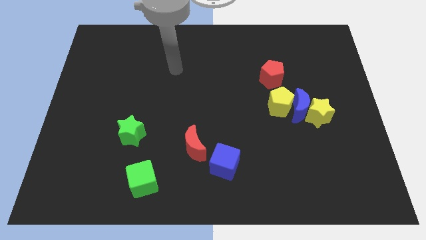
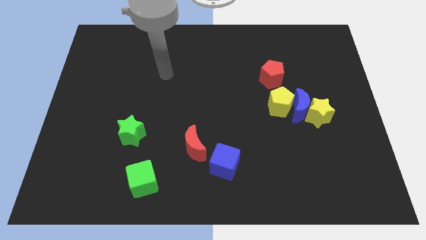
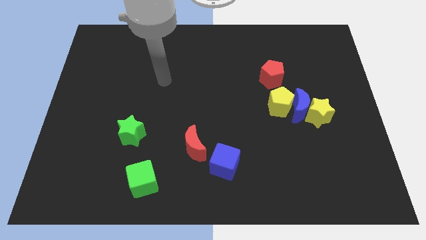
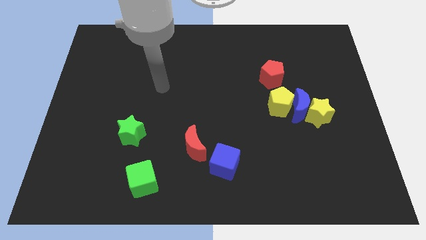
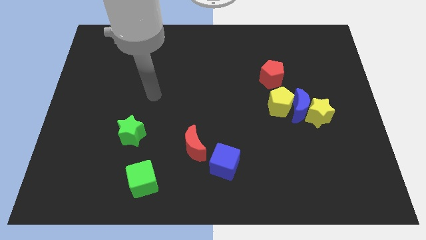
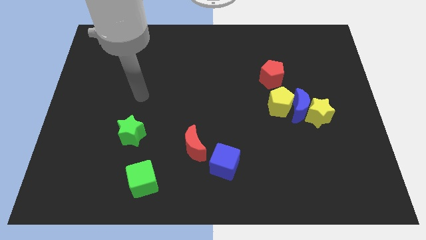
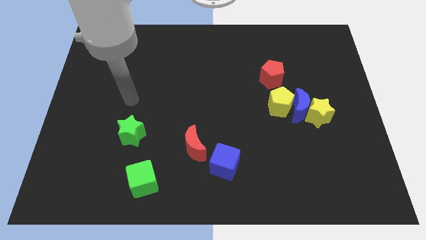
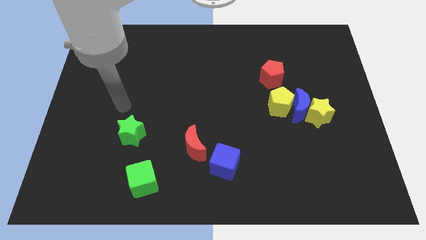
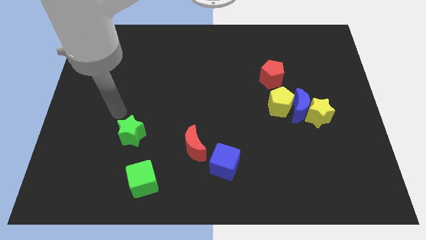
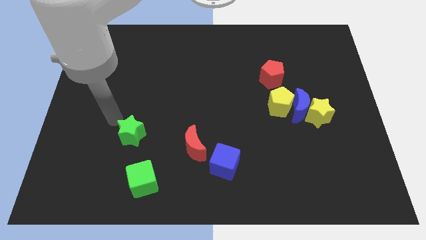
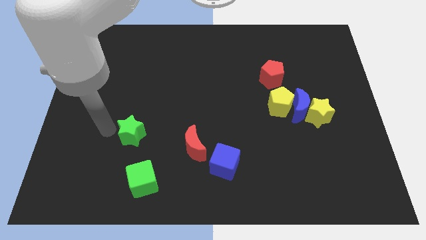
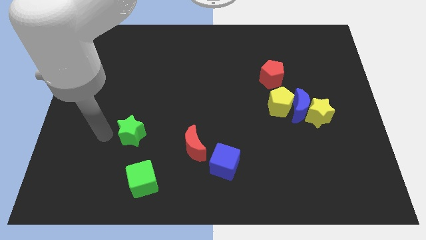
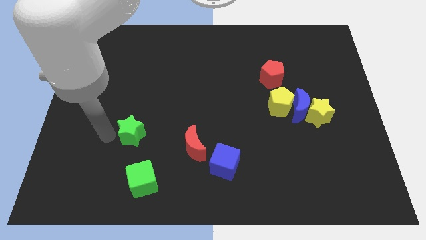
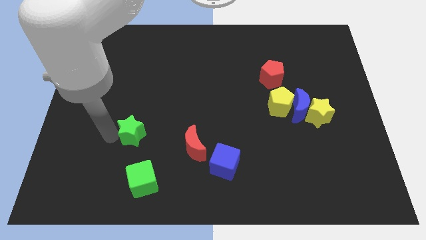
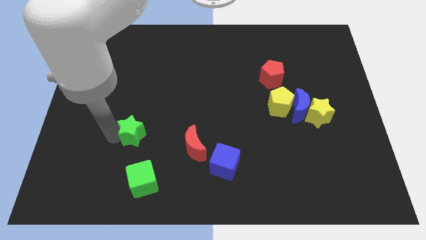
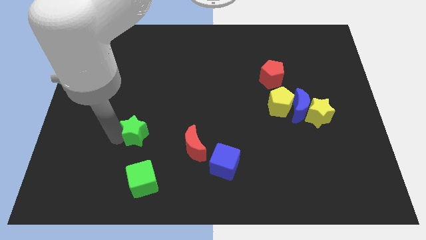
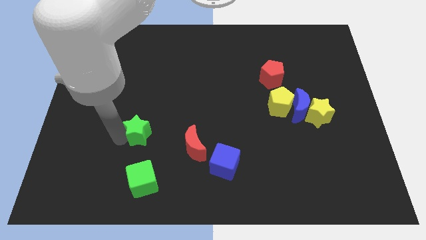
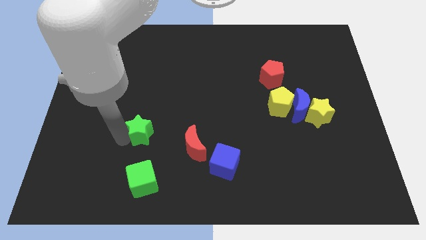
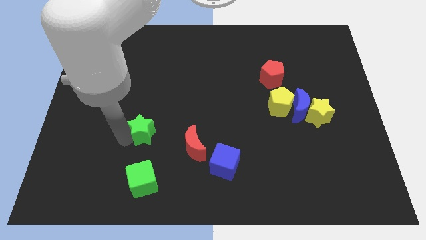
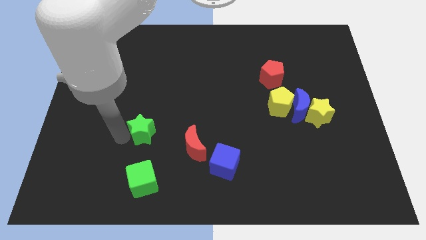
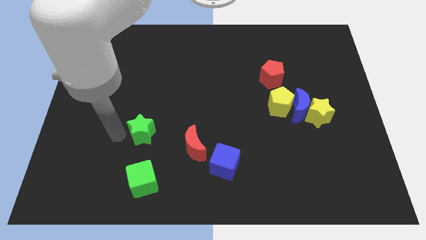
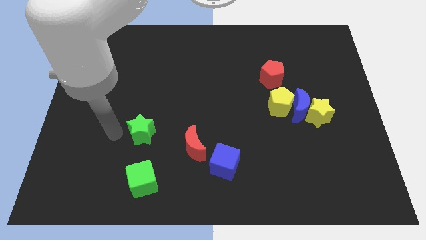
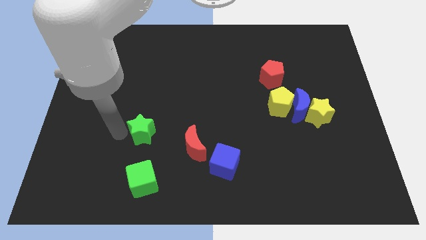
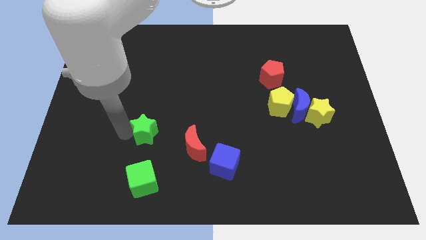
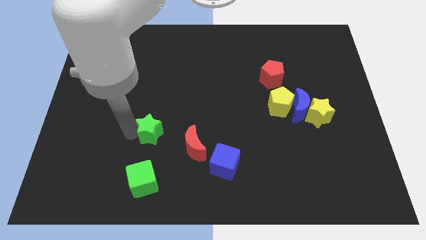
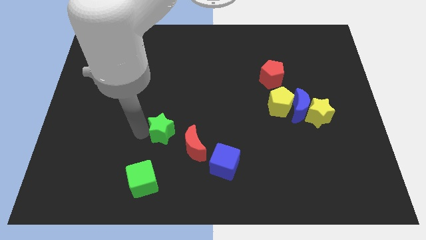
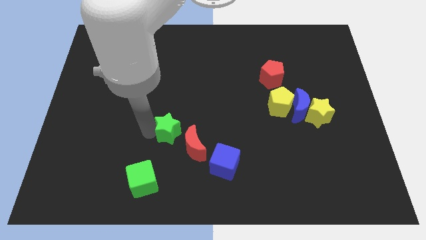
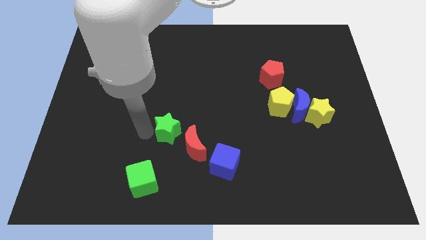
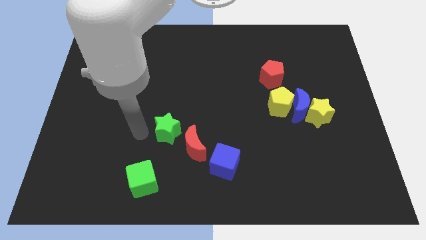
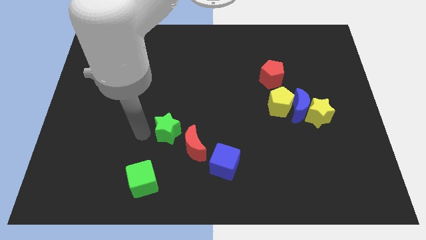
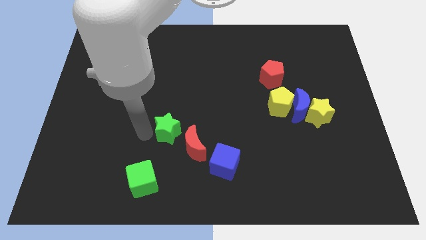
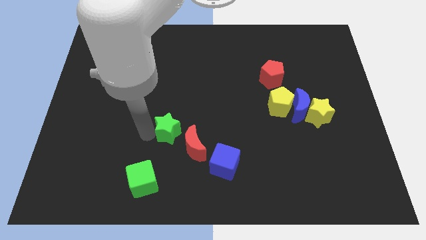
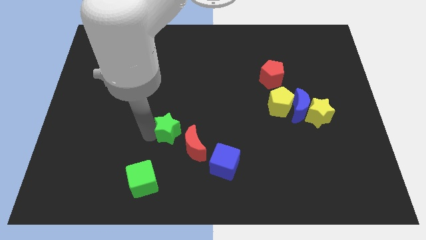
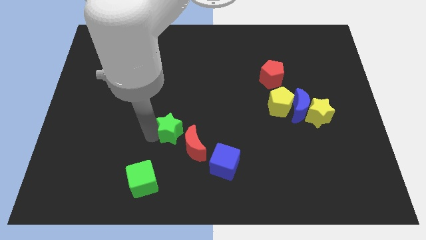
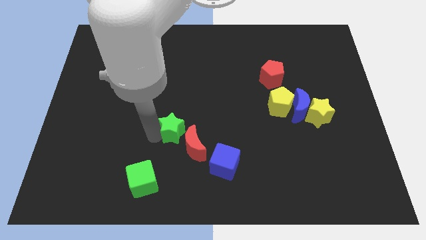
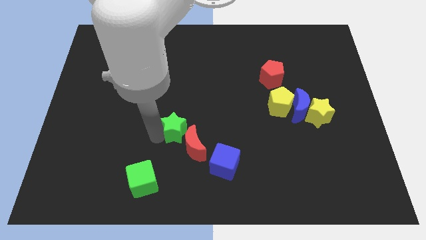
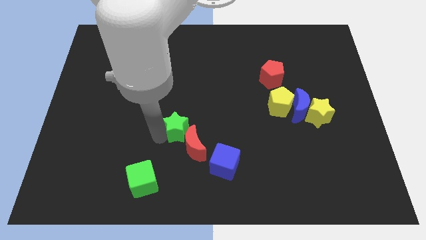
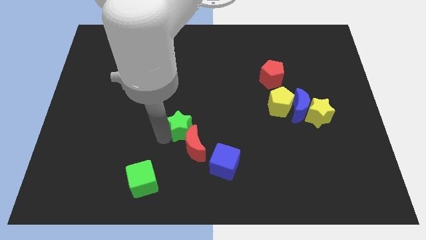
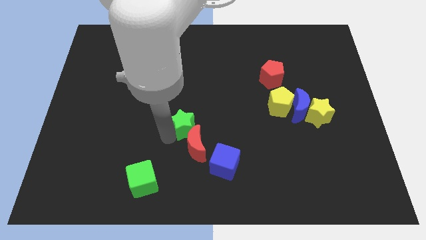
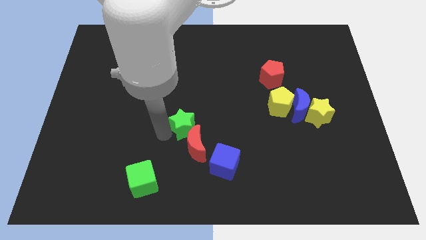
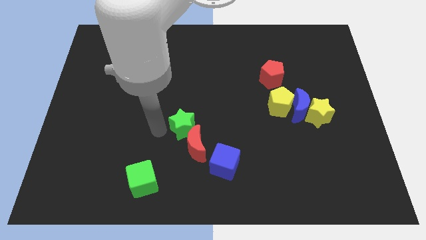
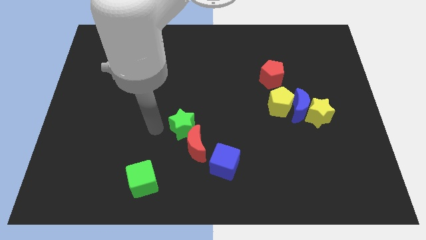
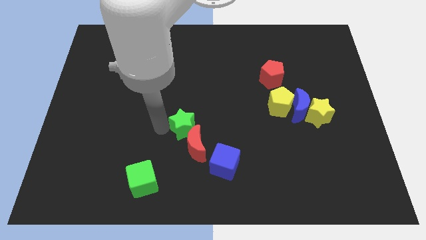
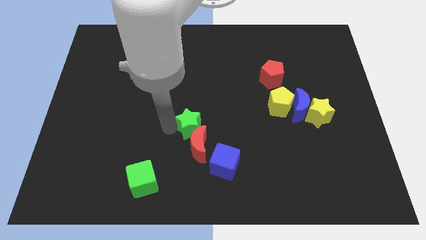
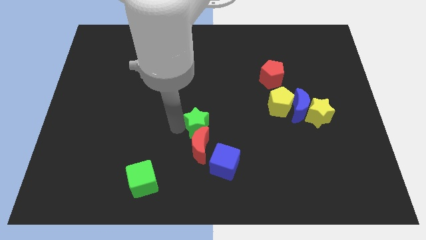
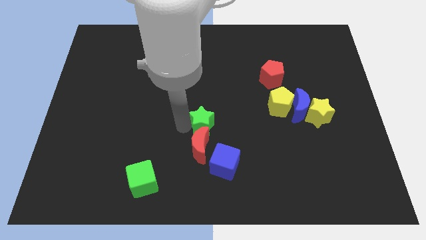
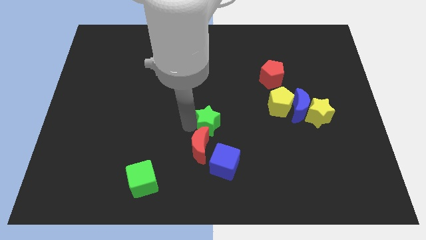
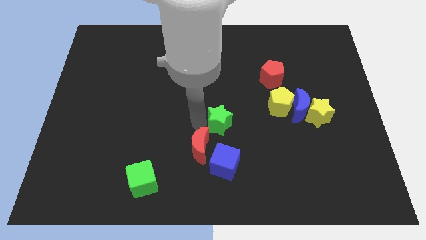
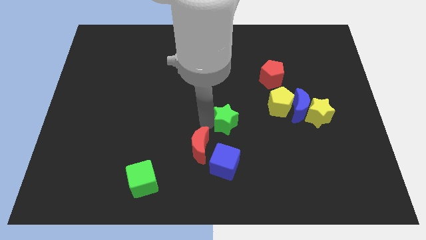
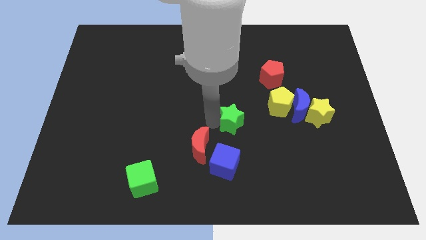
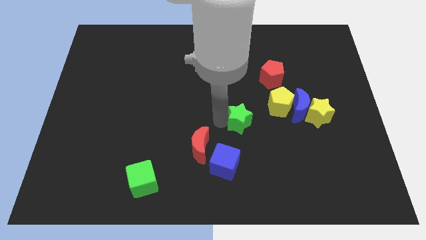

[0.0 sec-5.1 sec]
slide the green star diagonally down and to the left of the yellow pentagon

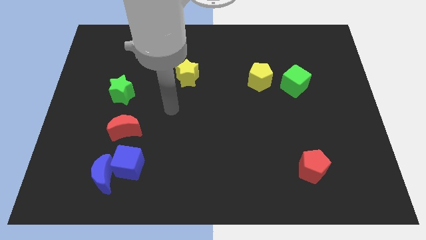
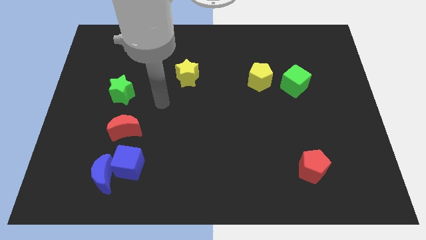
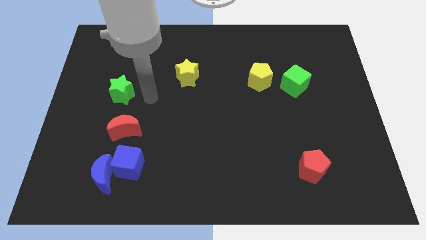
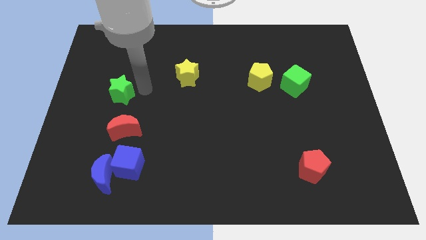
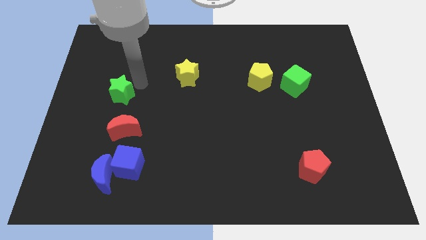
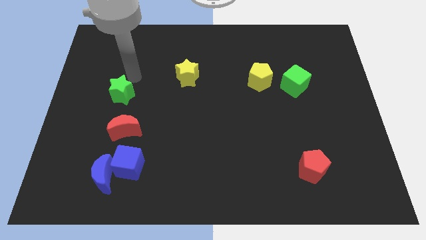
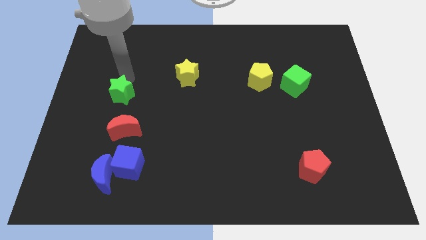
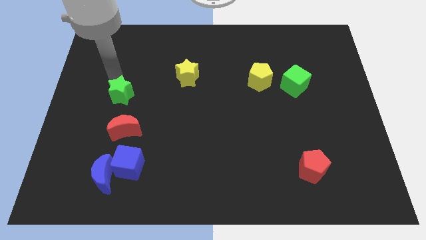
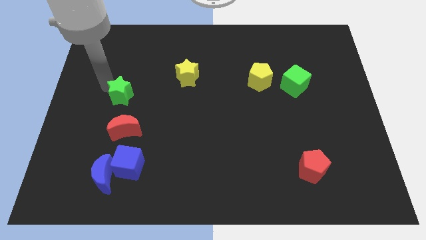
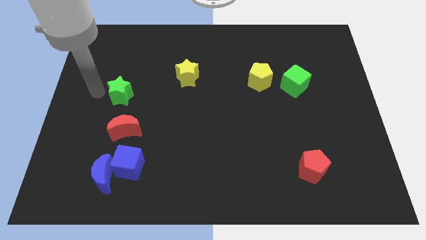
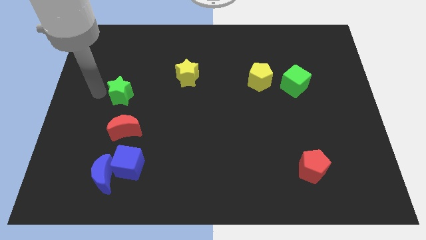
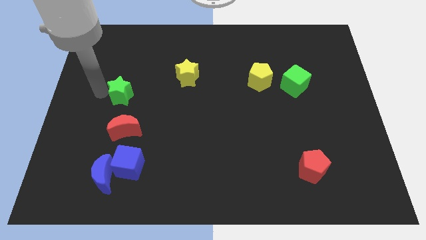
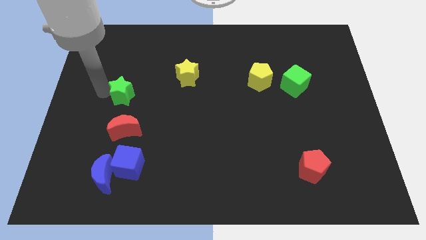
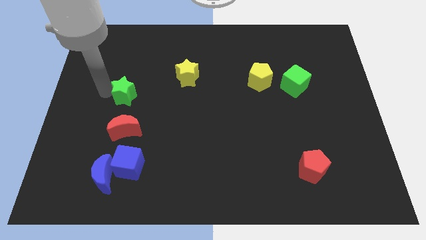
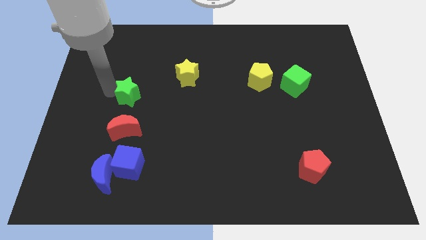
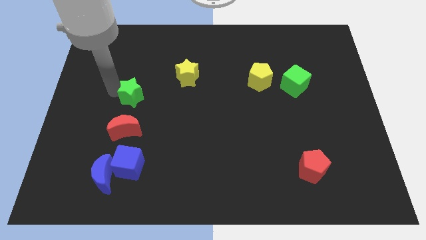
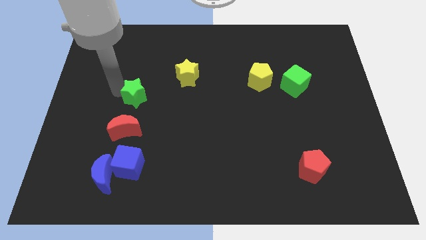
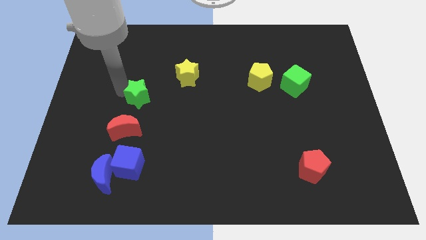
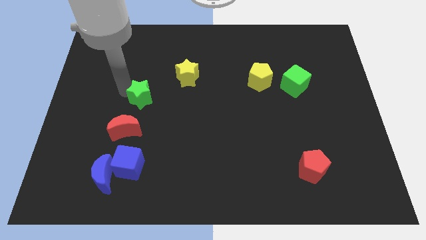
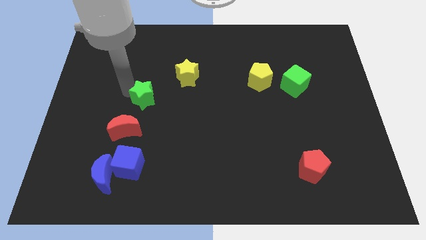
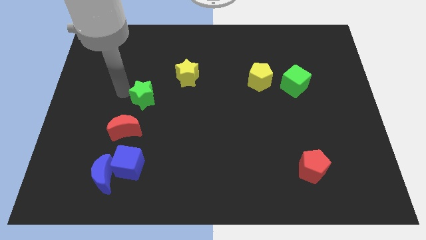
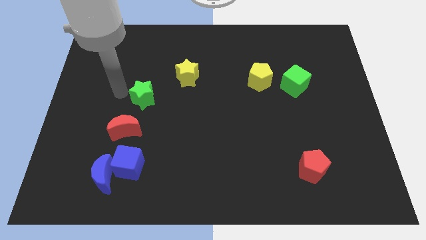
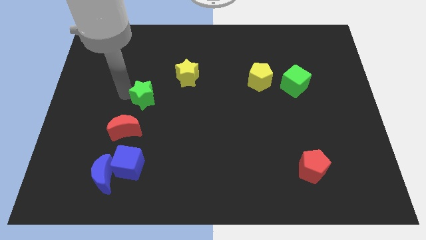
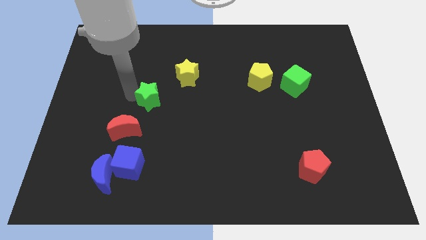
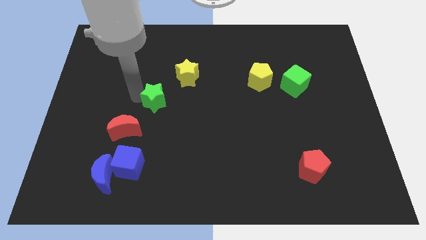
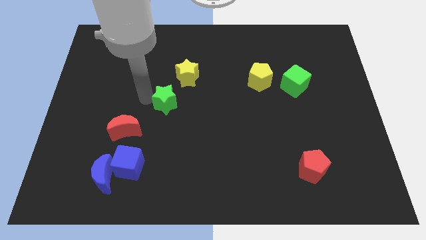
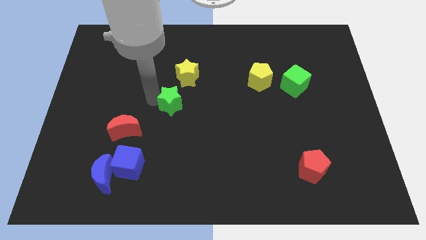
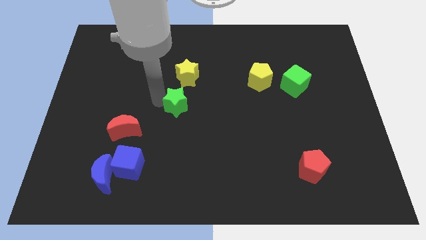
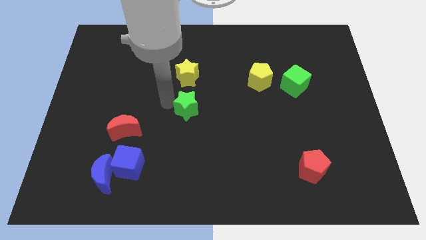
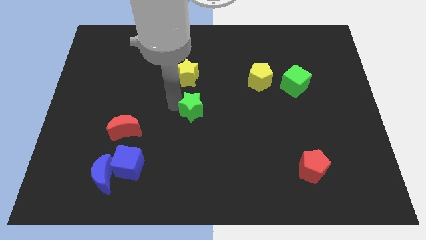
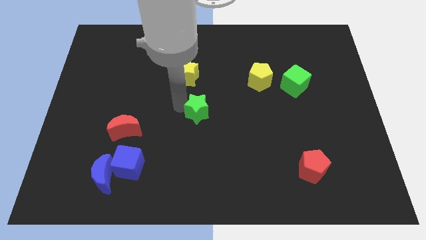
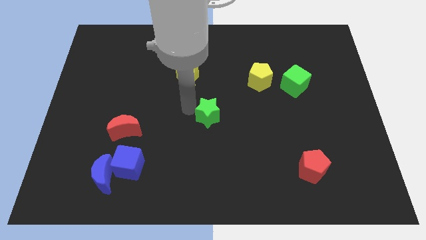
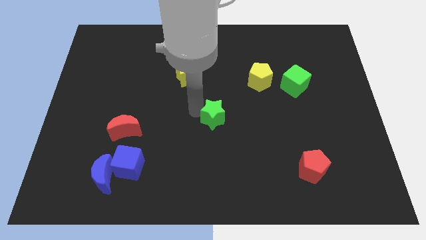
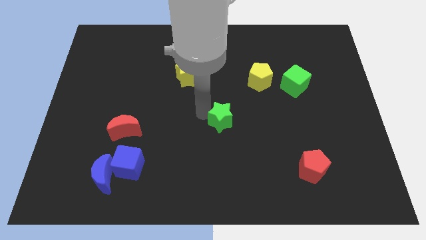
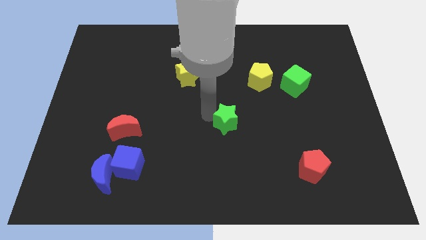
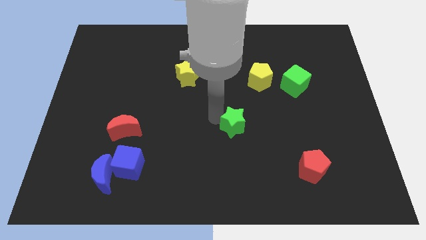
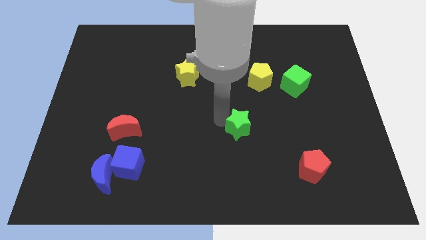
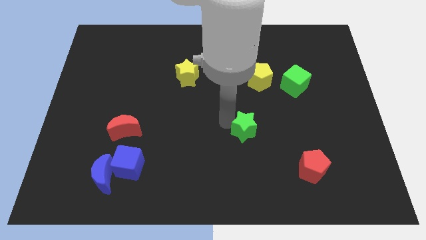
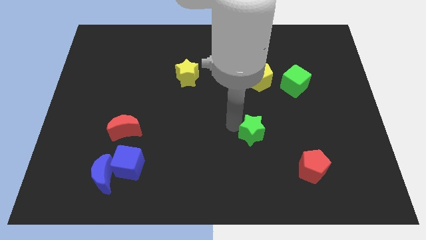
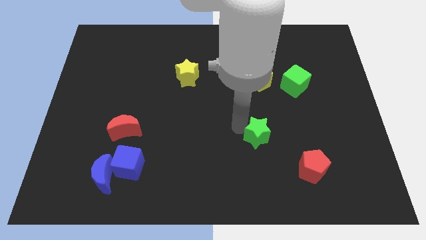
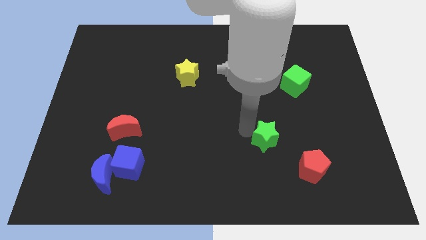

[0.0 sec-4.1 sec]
push the green star to the top left side of the red pentagon
